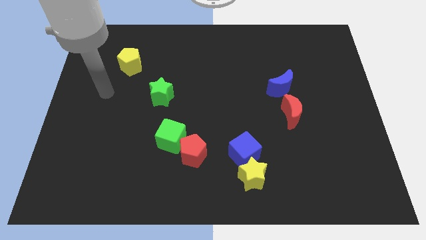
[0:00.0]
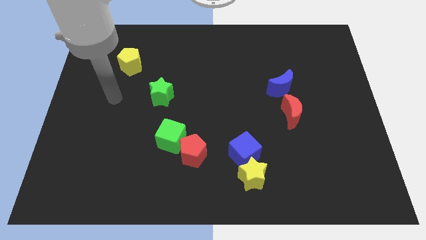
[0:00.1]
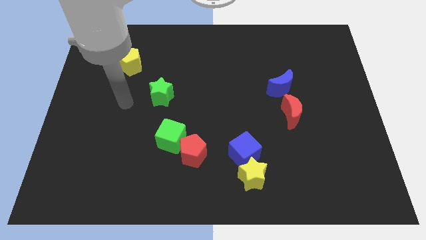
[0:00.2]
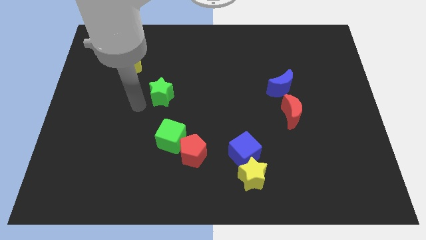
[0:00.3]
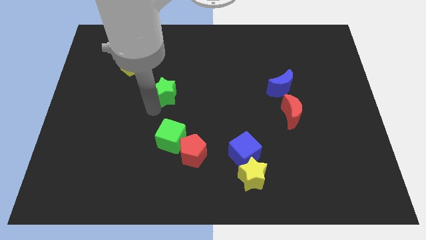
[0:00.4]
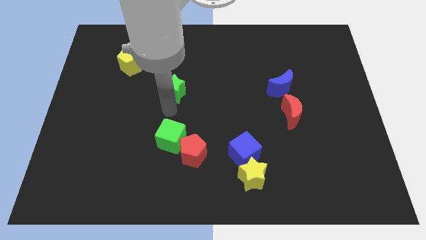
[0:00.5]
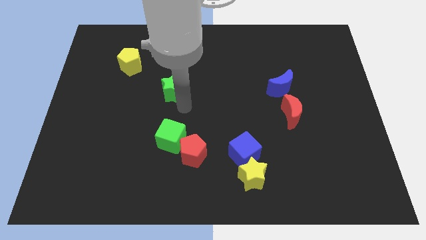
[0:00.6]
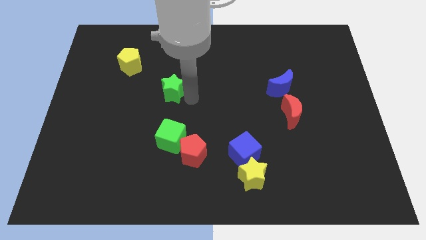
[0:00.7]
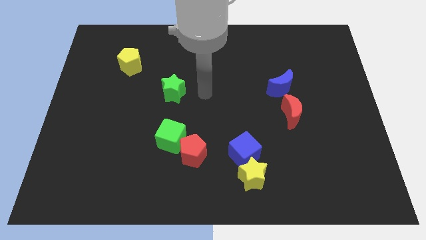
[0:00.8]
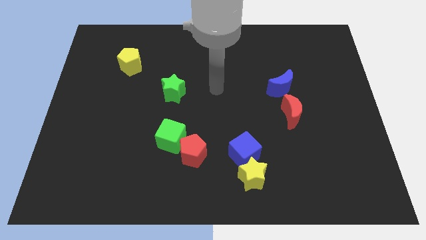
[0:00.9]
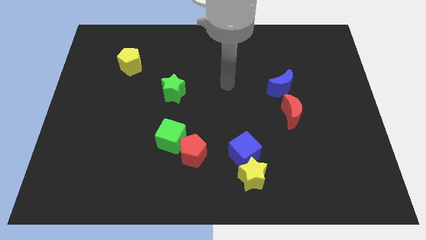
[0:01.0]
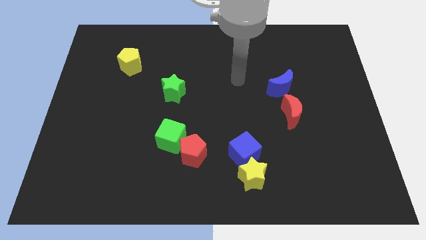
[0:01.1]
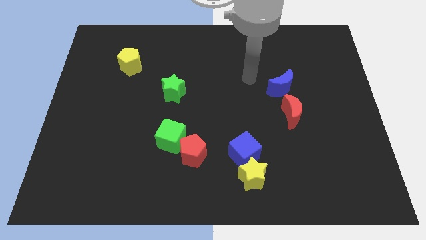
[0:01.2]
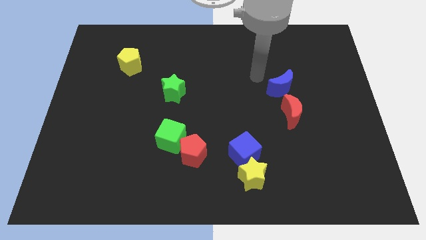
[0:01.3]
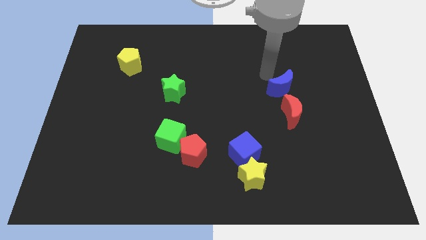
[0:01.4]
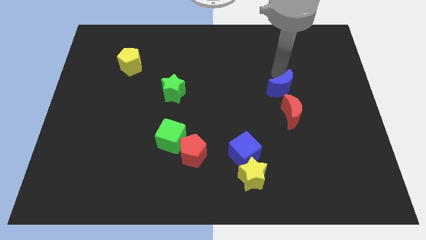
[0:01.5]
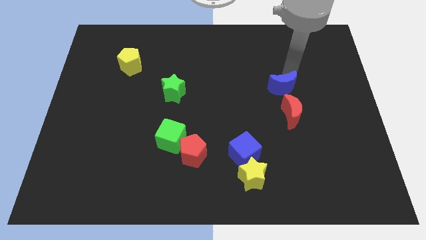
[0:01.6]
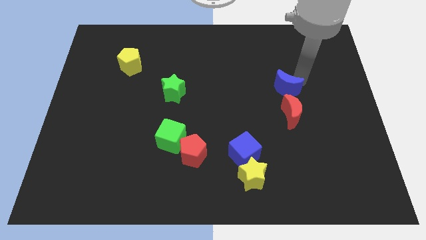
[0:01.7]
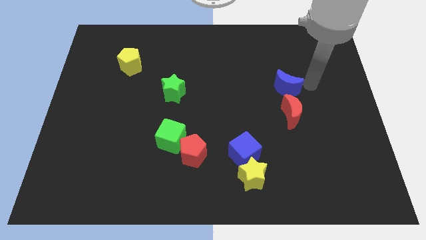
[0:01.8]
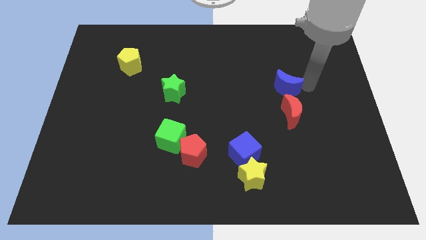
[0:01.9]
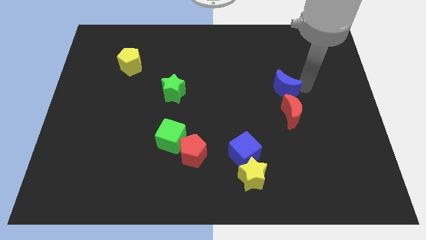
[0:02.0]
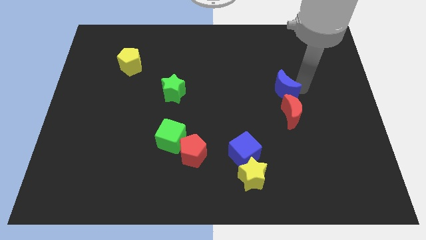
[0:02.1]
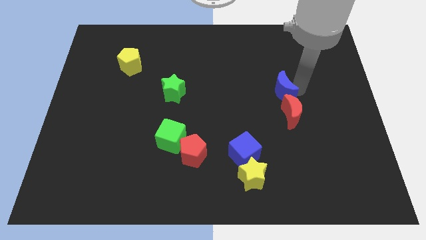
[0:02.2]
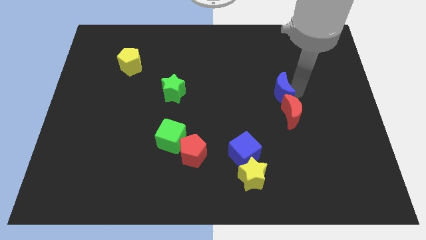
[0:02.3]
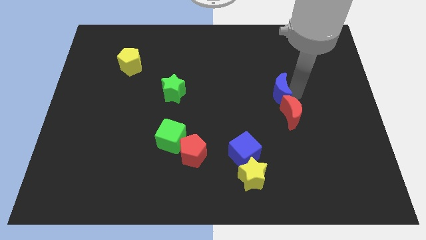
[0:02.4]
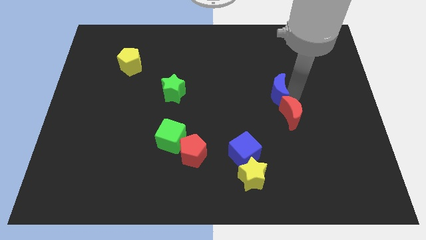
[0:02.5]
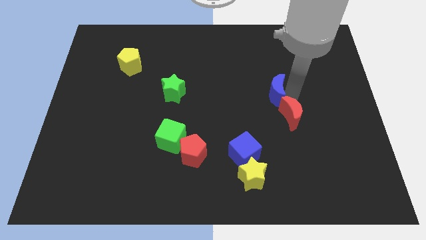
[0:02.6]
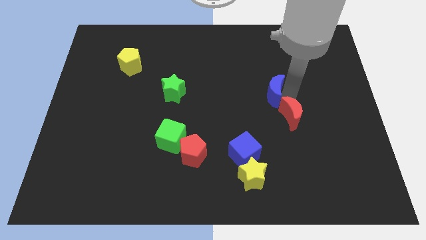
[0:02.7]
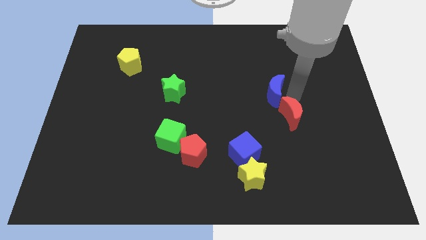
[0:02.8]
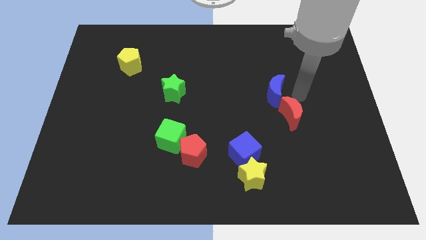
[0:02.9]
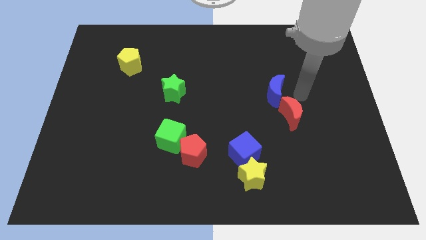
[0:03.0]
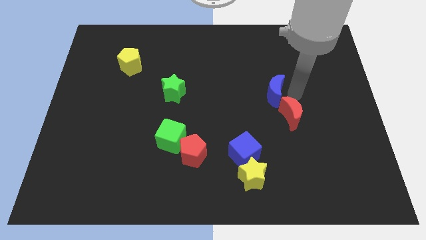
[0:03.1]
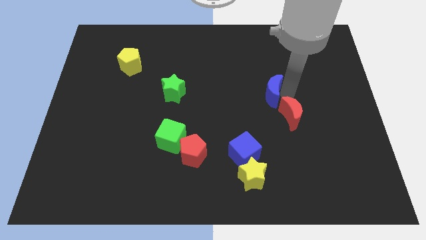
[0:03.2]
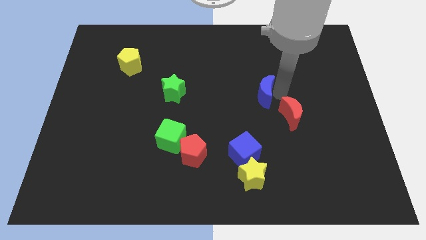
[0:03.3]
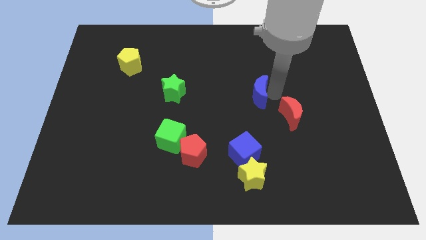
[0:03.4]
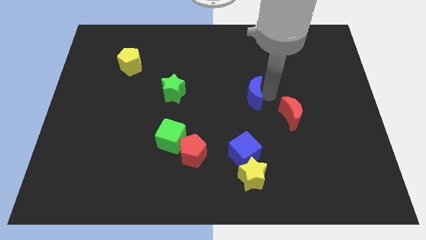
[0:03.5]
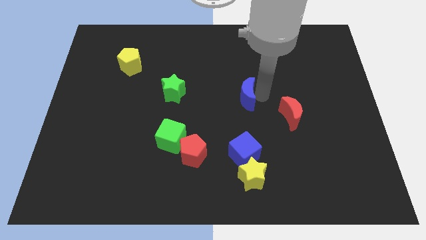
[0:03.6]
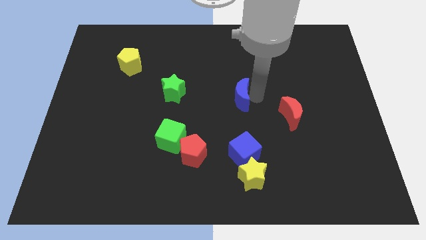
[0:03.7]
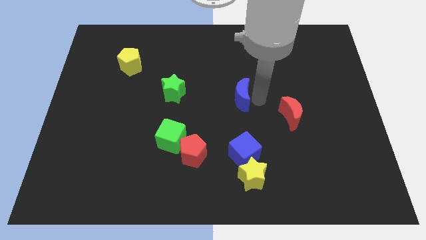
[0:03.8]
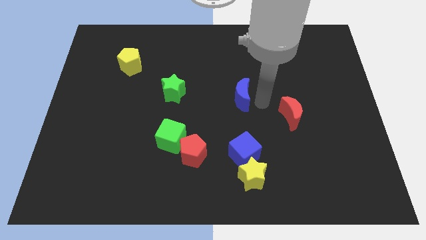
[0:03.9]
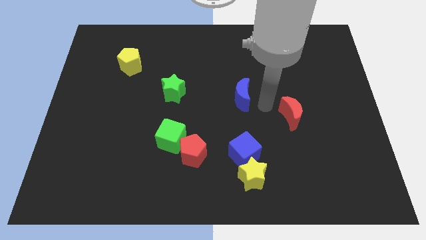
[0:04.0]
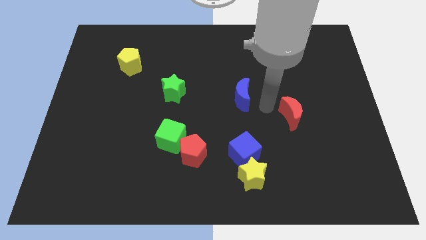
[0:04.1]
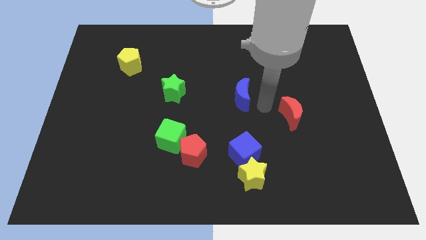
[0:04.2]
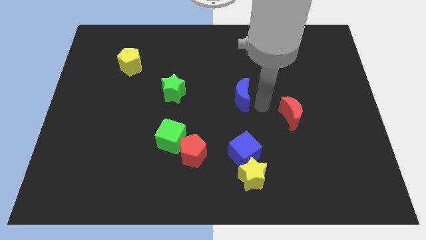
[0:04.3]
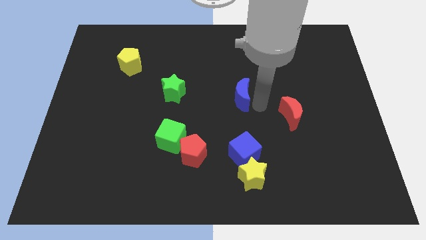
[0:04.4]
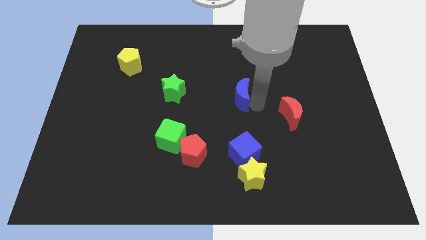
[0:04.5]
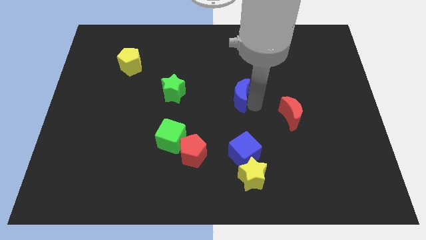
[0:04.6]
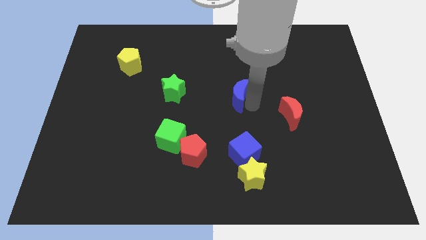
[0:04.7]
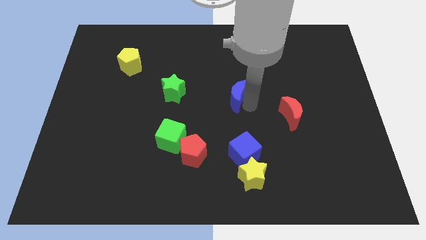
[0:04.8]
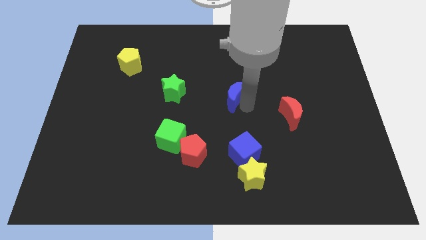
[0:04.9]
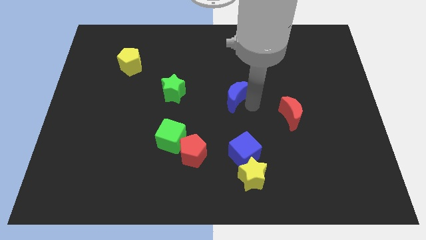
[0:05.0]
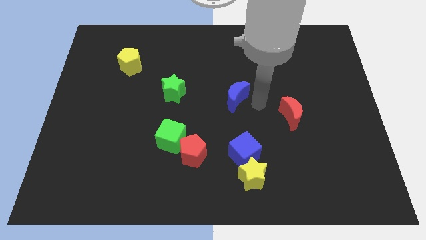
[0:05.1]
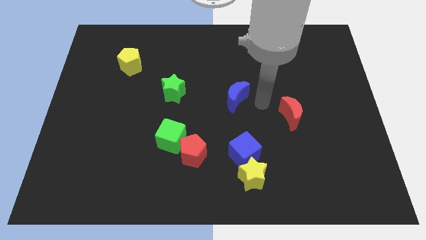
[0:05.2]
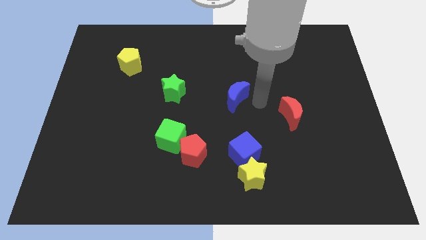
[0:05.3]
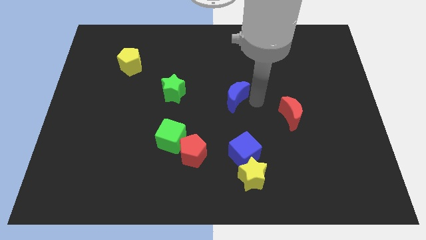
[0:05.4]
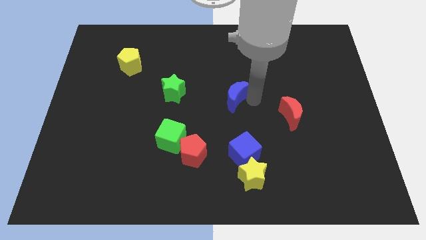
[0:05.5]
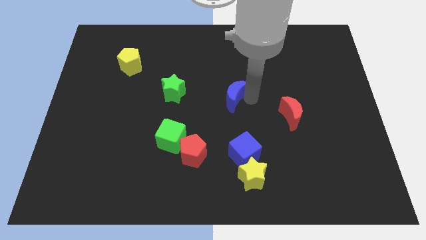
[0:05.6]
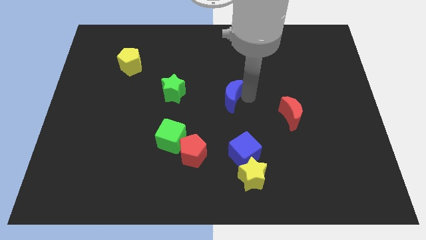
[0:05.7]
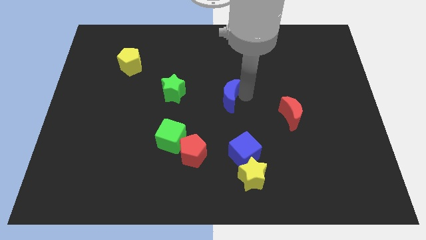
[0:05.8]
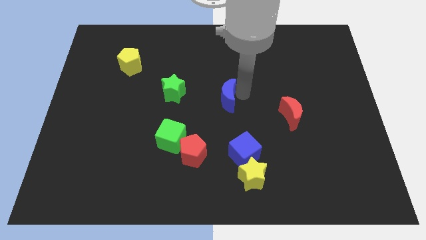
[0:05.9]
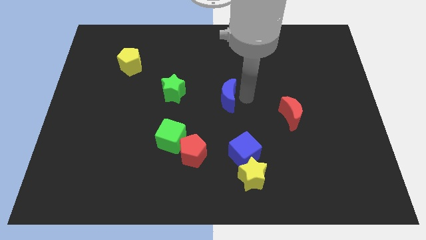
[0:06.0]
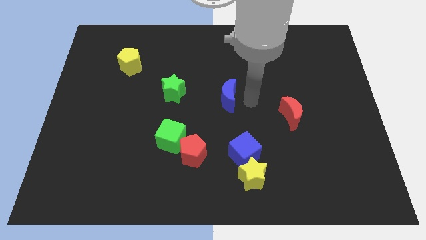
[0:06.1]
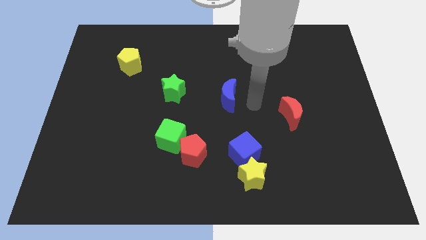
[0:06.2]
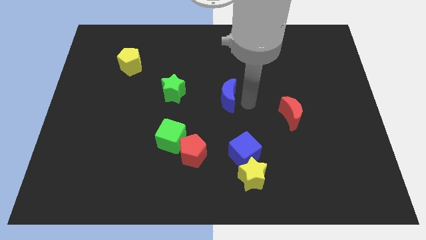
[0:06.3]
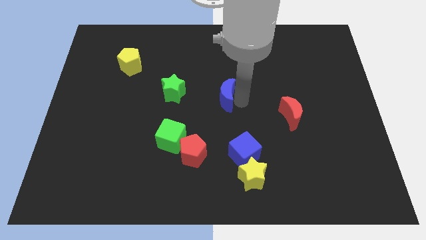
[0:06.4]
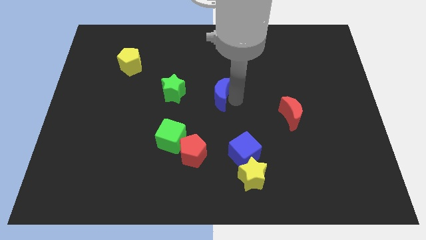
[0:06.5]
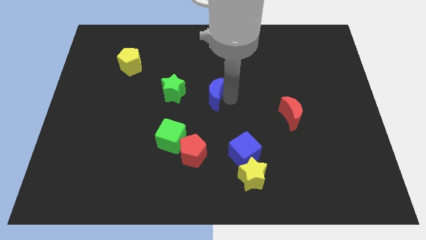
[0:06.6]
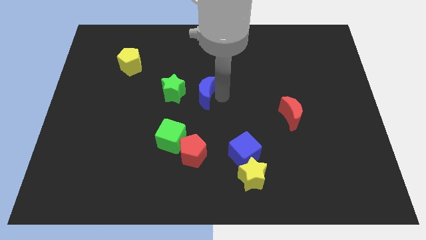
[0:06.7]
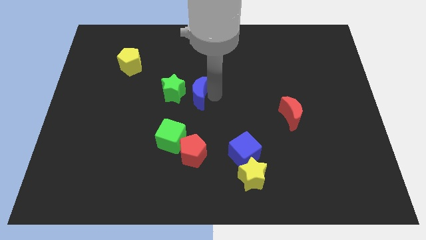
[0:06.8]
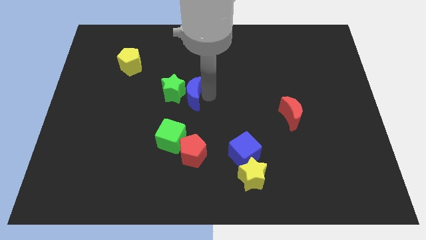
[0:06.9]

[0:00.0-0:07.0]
put the blue moon towards the green star
